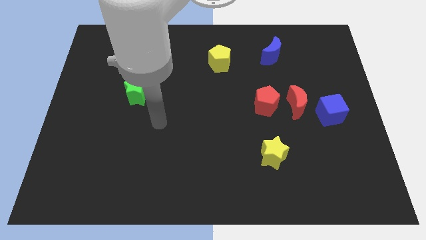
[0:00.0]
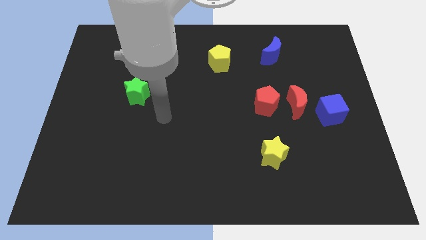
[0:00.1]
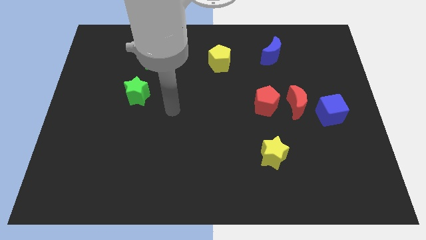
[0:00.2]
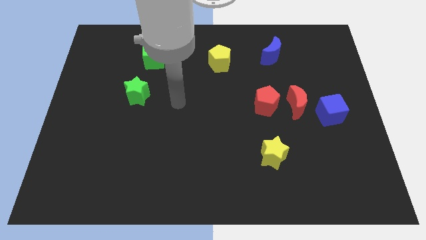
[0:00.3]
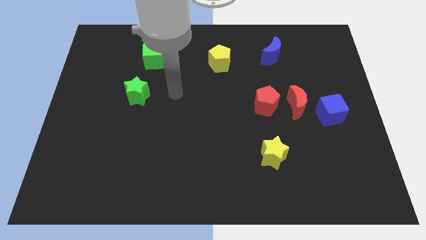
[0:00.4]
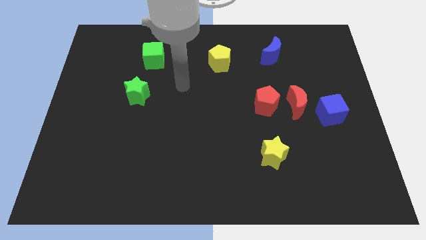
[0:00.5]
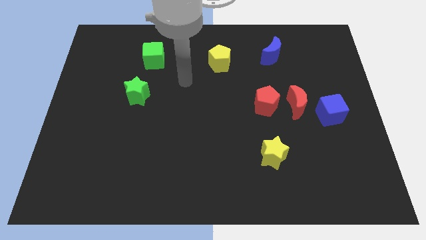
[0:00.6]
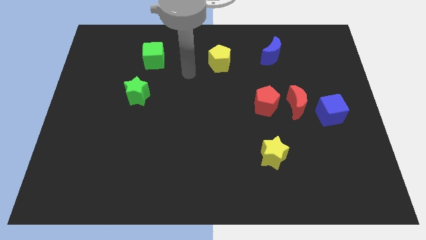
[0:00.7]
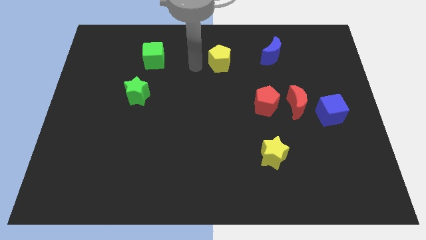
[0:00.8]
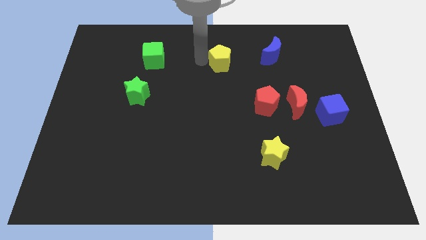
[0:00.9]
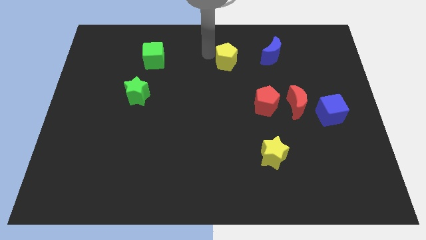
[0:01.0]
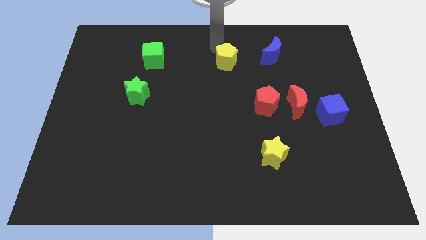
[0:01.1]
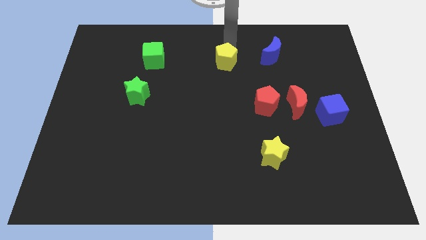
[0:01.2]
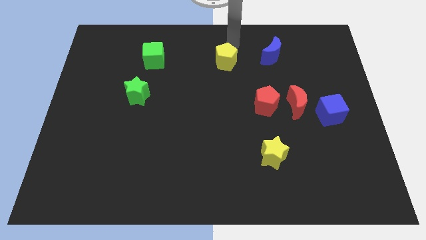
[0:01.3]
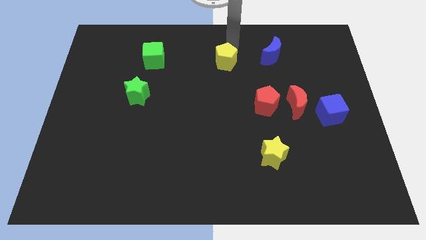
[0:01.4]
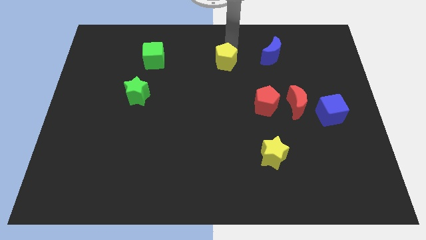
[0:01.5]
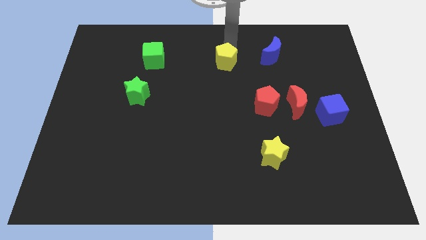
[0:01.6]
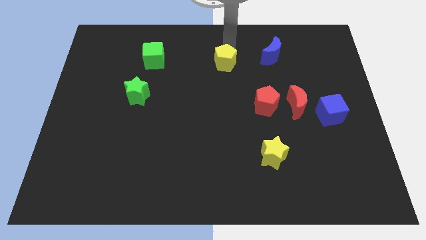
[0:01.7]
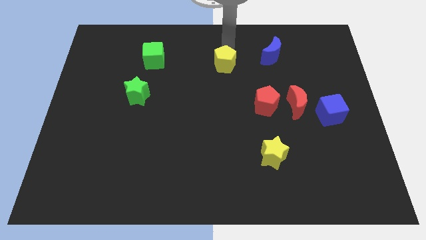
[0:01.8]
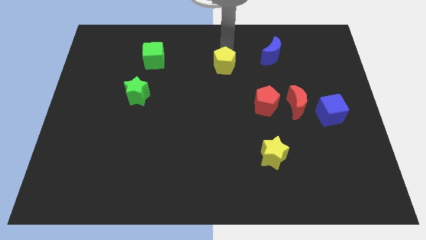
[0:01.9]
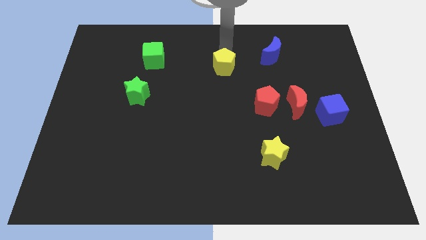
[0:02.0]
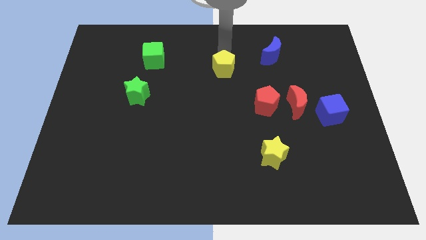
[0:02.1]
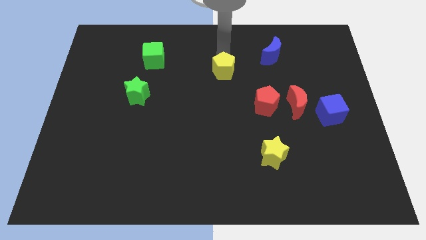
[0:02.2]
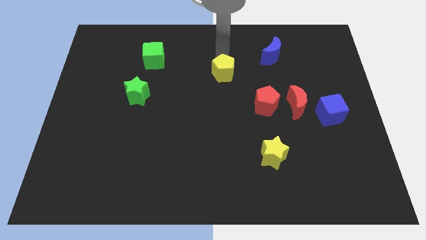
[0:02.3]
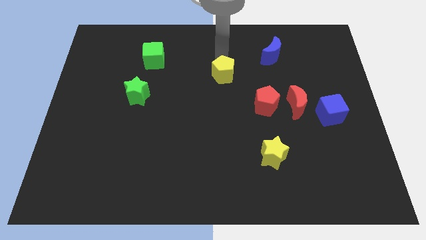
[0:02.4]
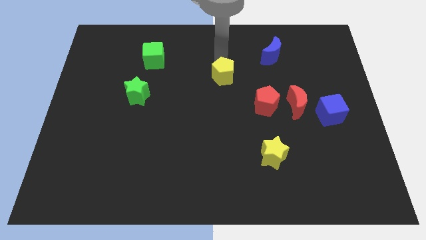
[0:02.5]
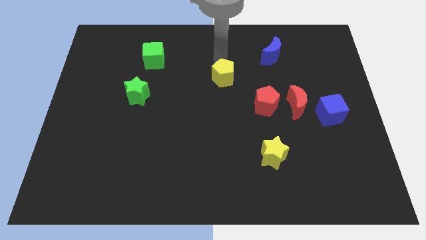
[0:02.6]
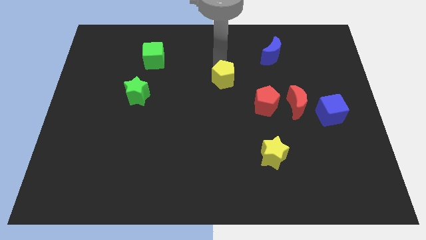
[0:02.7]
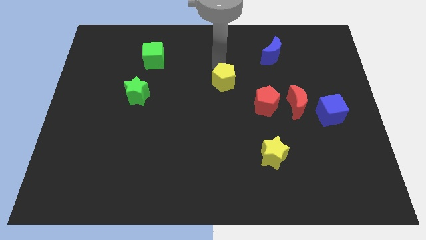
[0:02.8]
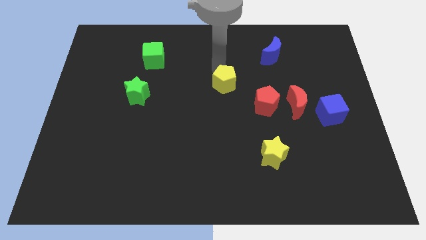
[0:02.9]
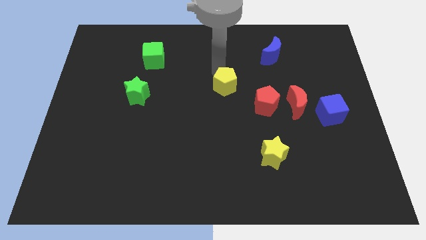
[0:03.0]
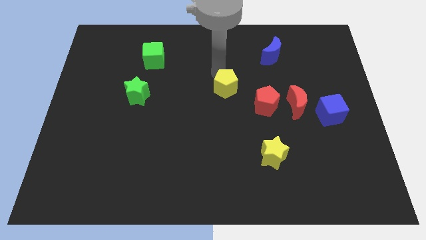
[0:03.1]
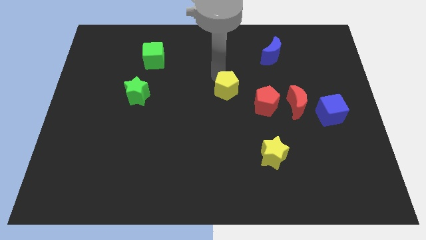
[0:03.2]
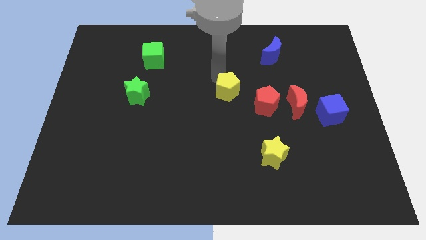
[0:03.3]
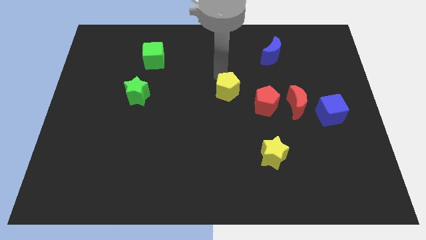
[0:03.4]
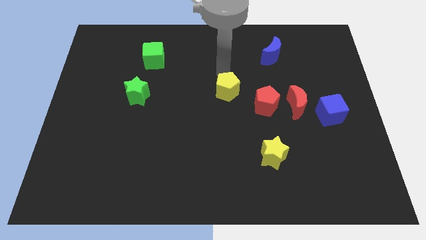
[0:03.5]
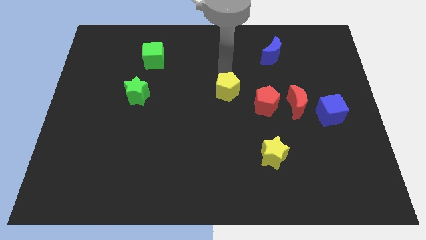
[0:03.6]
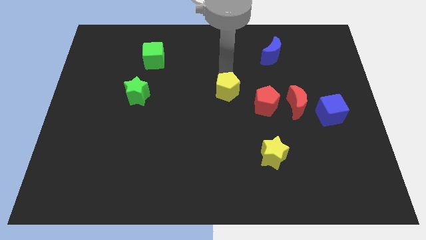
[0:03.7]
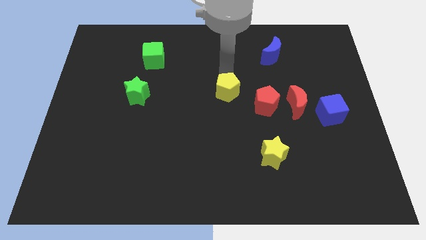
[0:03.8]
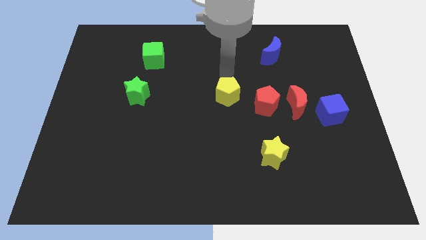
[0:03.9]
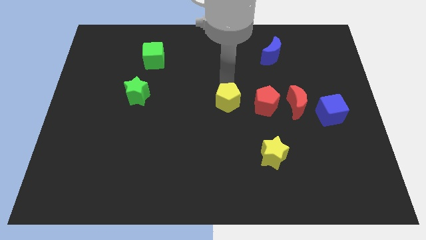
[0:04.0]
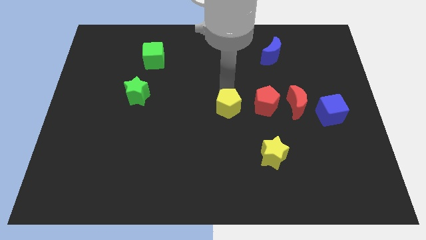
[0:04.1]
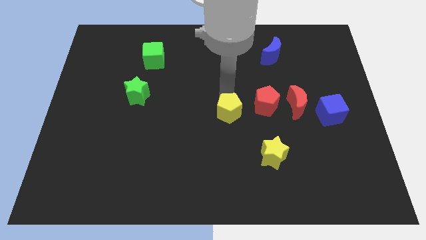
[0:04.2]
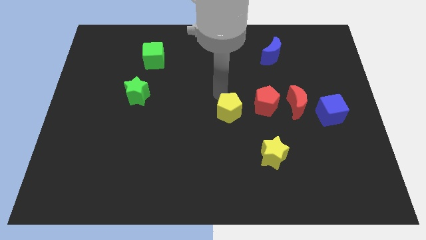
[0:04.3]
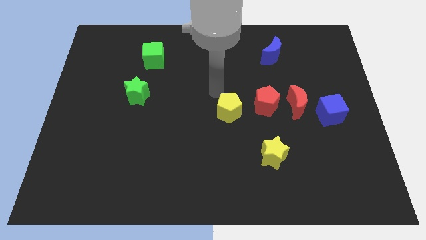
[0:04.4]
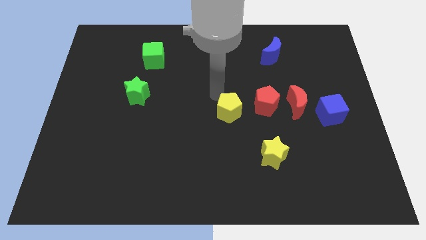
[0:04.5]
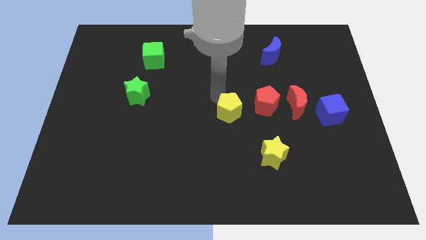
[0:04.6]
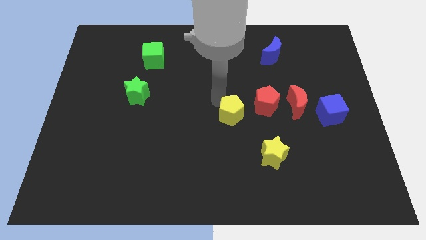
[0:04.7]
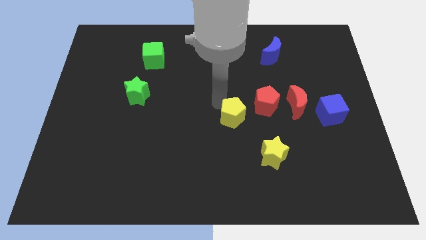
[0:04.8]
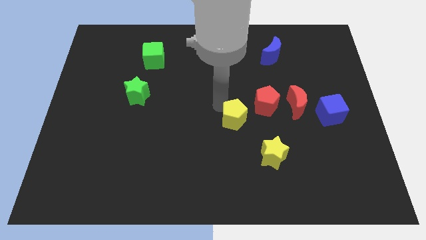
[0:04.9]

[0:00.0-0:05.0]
move the yellow pentagon to the top left side of the yellow star

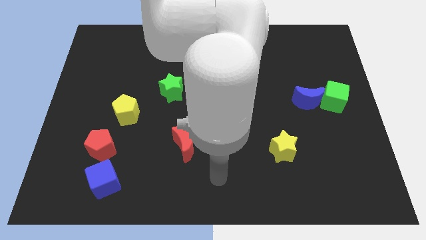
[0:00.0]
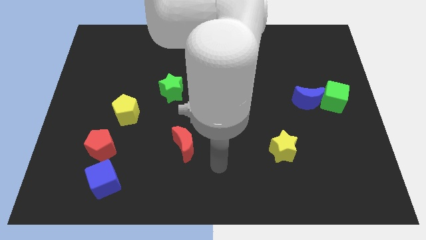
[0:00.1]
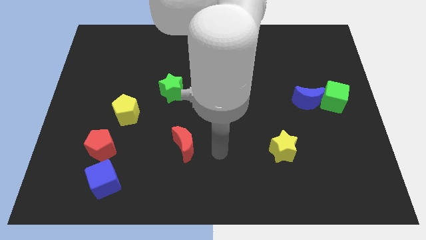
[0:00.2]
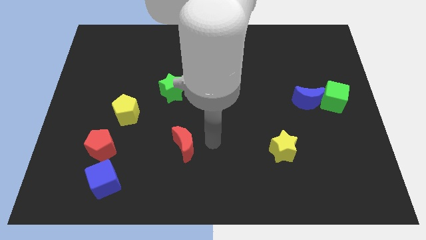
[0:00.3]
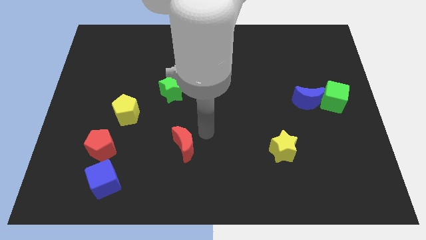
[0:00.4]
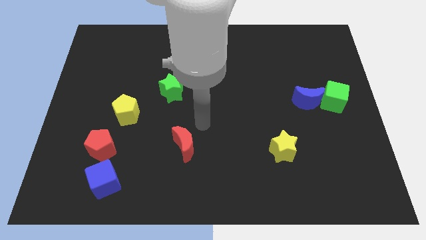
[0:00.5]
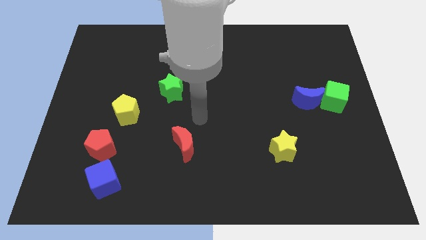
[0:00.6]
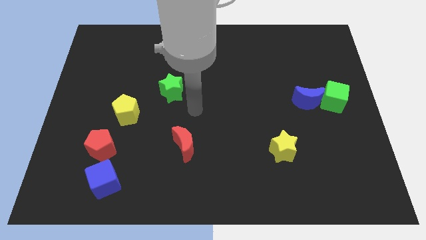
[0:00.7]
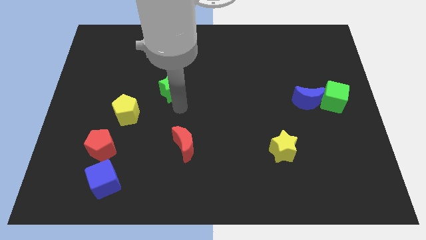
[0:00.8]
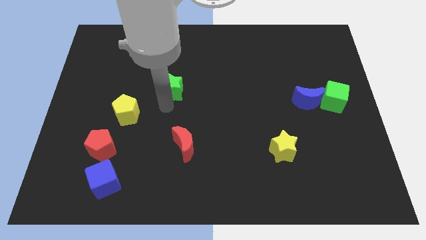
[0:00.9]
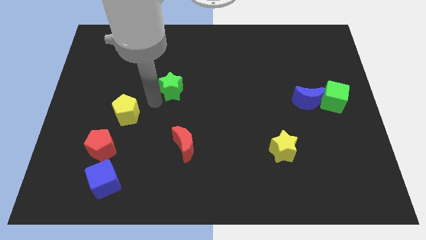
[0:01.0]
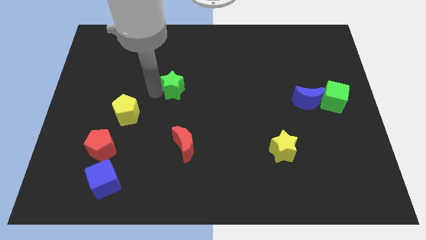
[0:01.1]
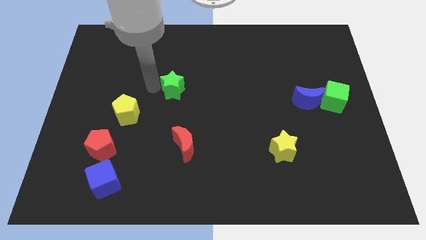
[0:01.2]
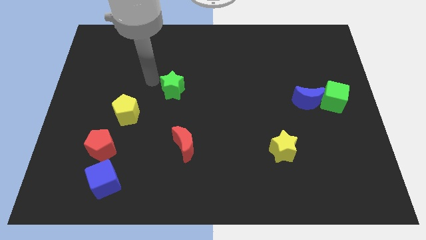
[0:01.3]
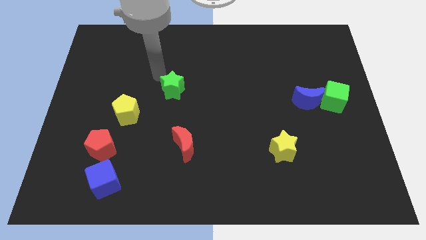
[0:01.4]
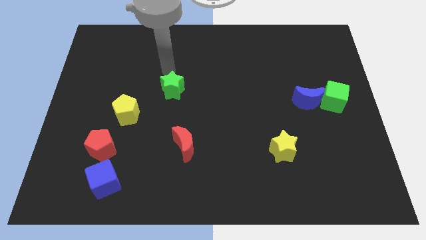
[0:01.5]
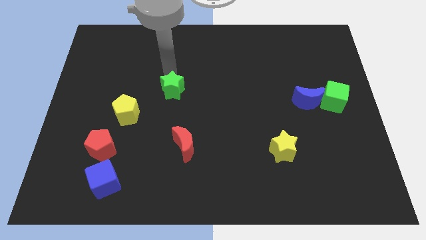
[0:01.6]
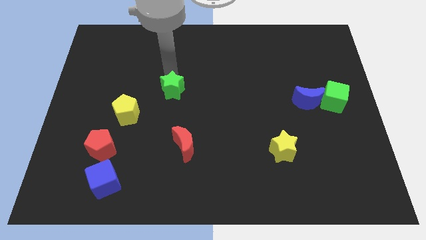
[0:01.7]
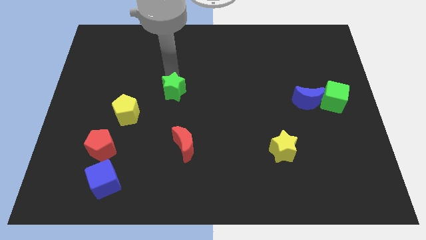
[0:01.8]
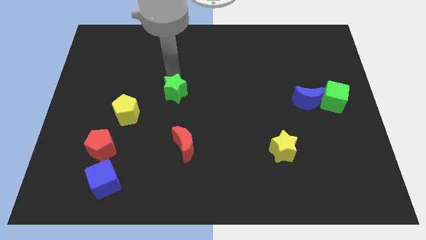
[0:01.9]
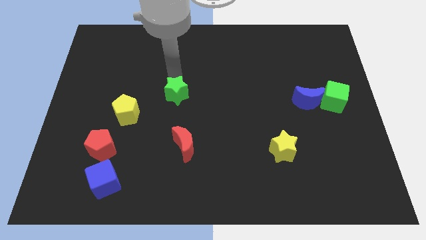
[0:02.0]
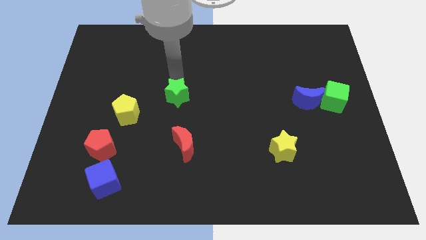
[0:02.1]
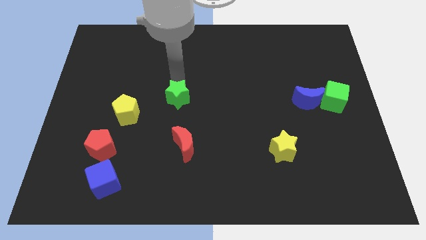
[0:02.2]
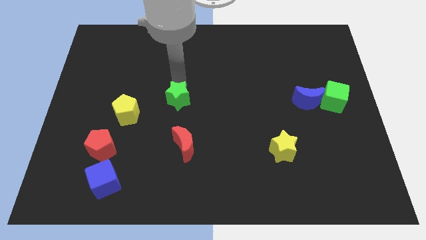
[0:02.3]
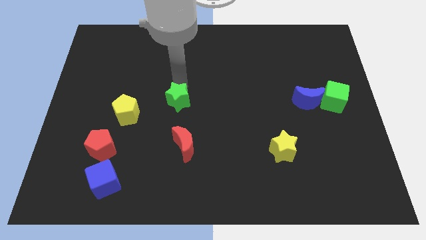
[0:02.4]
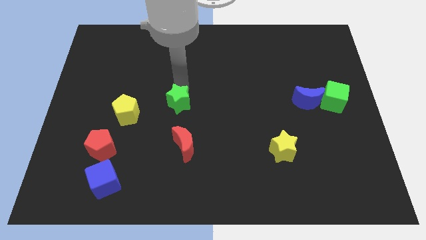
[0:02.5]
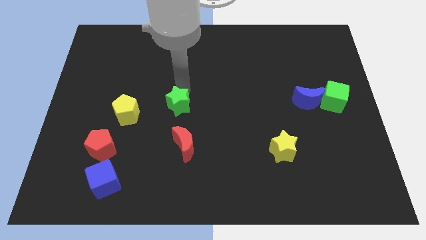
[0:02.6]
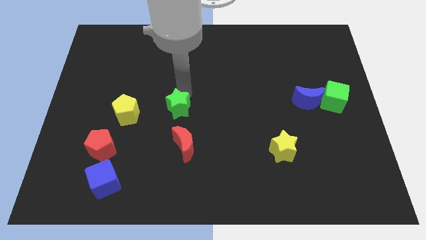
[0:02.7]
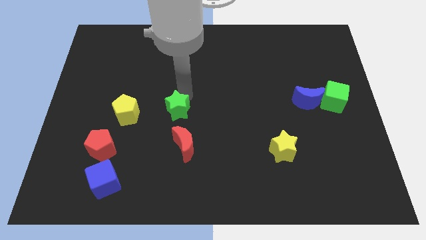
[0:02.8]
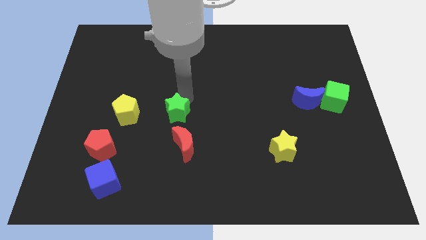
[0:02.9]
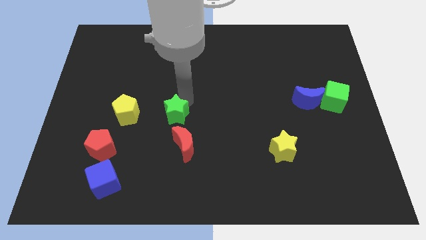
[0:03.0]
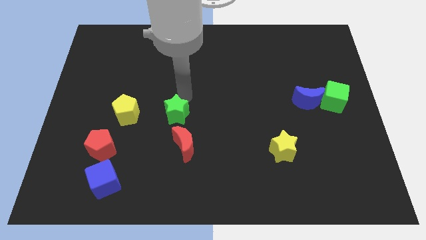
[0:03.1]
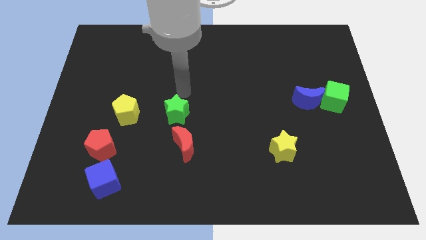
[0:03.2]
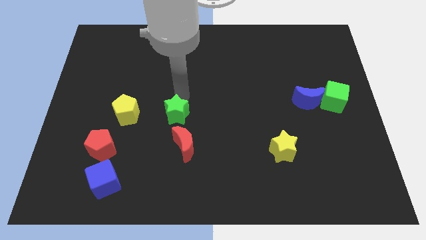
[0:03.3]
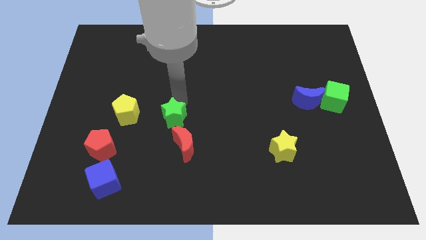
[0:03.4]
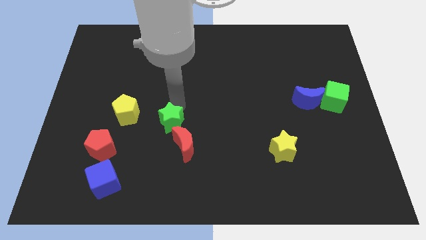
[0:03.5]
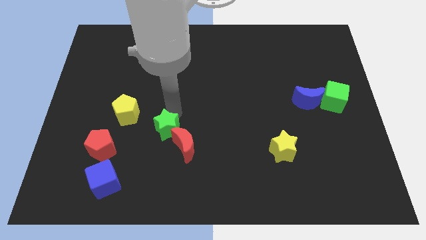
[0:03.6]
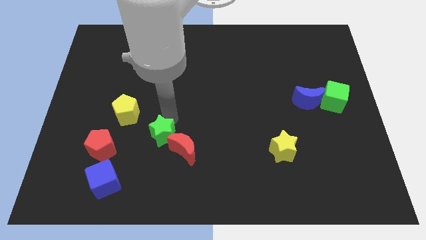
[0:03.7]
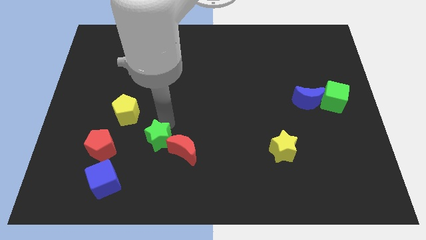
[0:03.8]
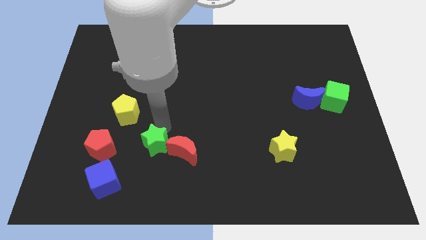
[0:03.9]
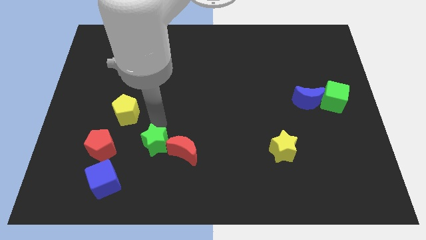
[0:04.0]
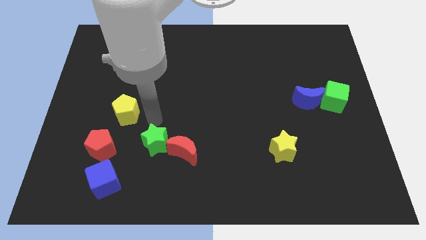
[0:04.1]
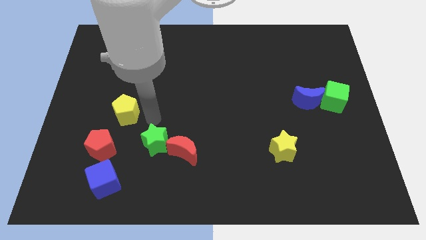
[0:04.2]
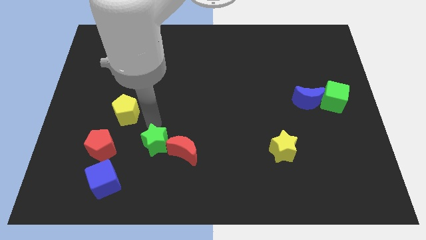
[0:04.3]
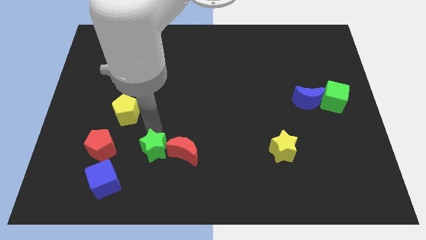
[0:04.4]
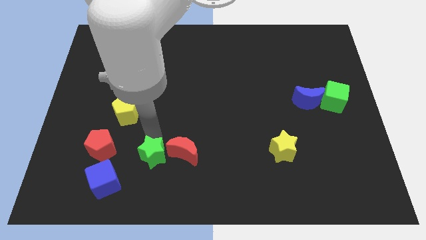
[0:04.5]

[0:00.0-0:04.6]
move the green star diagonally down and to the left of the red moon
